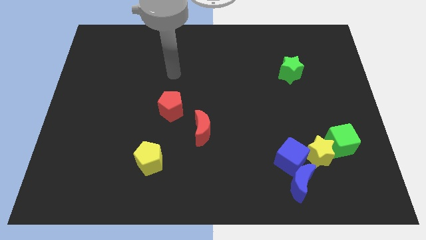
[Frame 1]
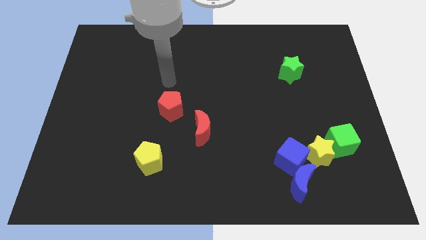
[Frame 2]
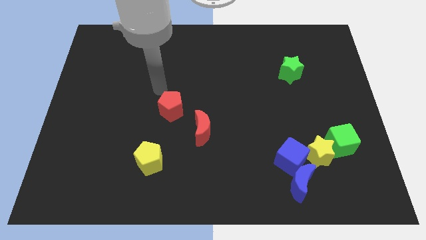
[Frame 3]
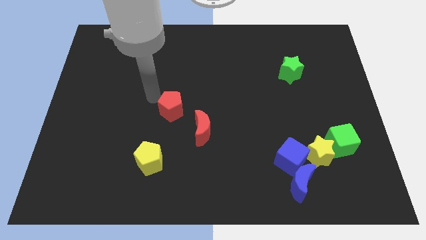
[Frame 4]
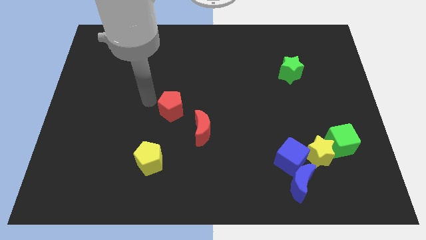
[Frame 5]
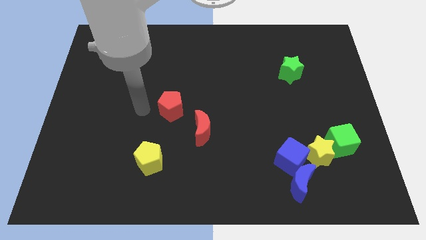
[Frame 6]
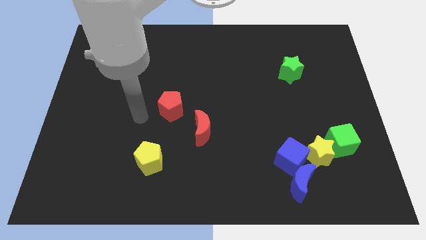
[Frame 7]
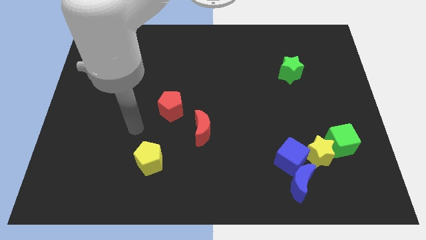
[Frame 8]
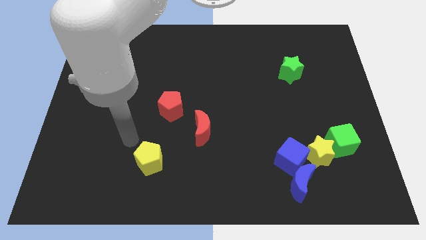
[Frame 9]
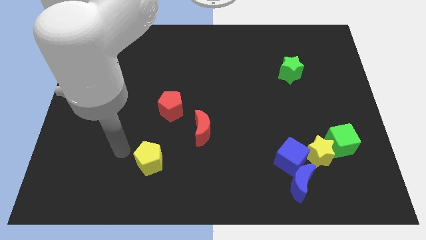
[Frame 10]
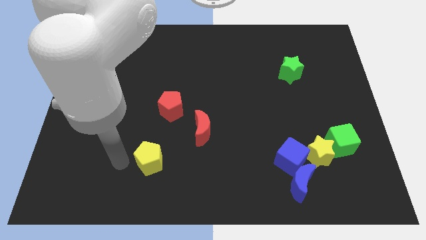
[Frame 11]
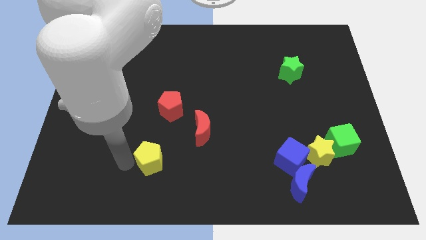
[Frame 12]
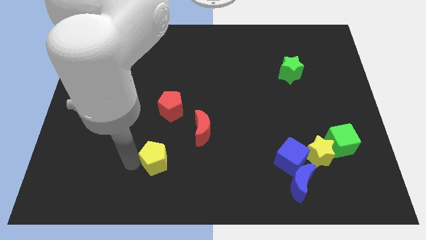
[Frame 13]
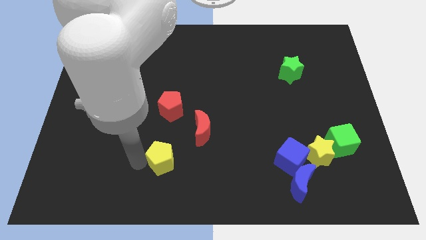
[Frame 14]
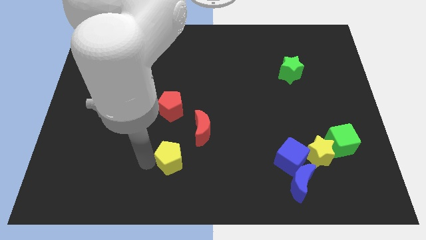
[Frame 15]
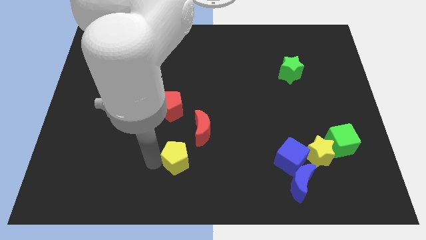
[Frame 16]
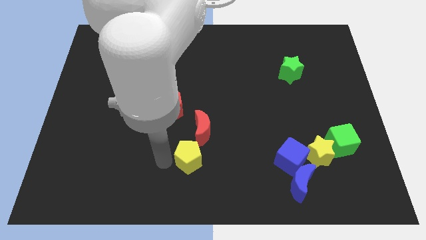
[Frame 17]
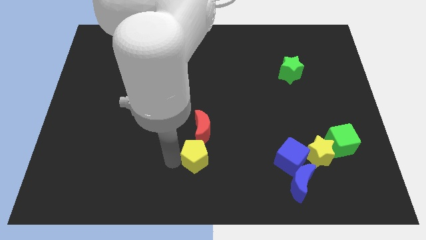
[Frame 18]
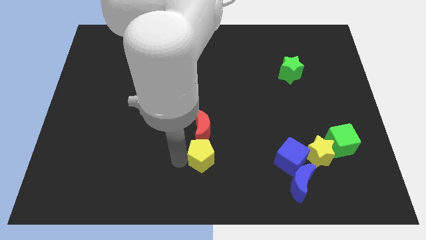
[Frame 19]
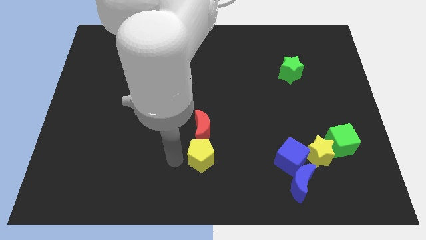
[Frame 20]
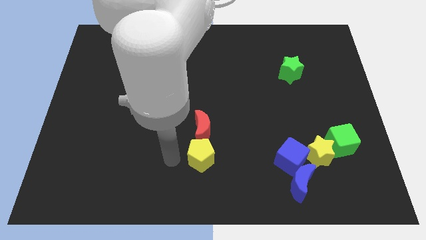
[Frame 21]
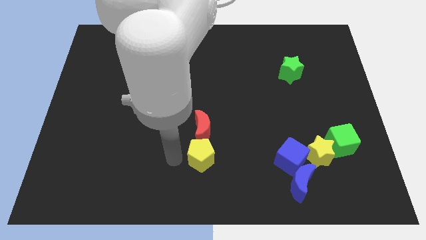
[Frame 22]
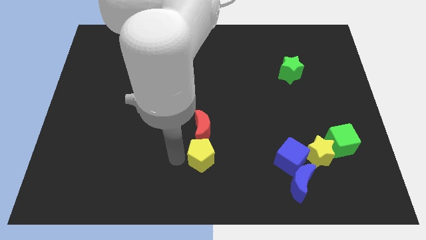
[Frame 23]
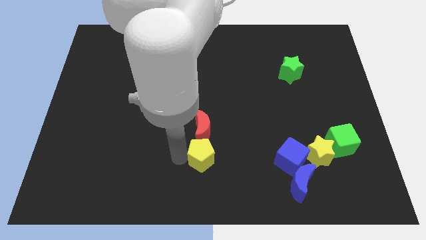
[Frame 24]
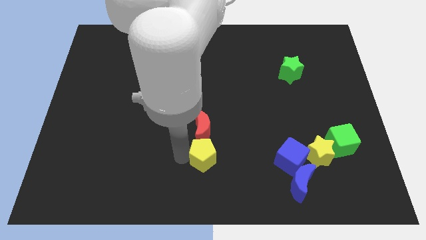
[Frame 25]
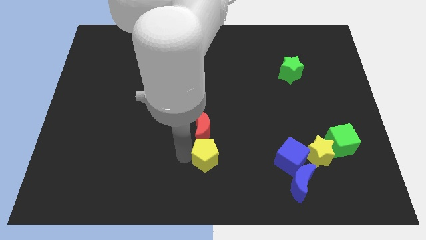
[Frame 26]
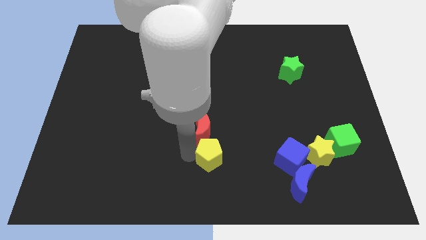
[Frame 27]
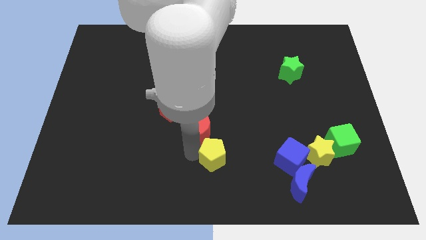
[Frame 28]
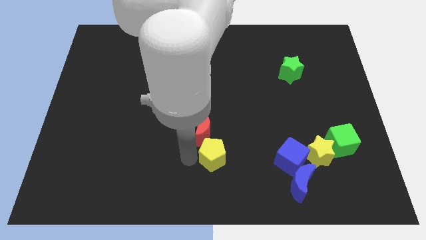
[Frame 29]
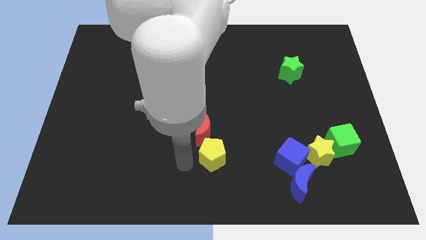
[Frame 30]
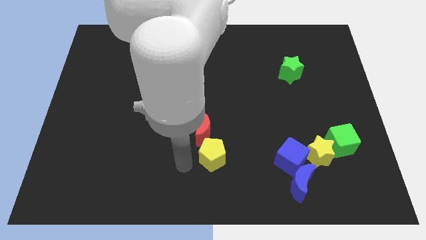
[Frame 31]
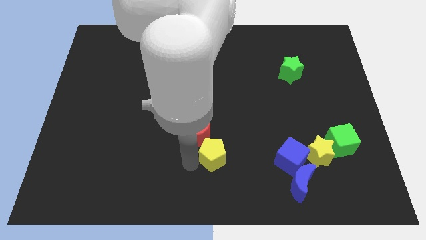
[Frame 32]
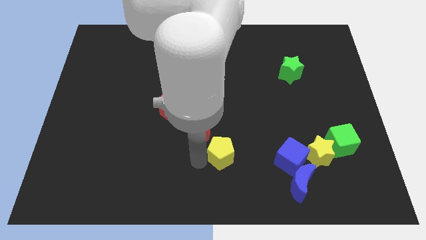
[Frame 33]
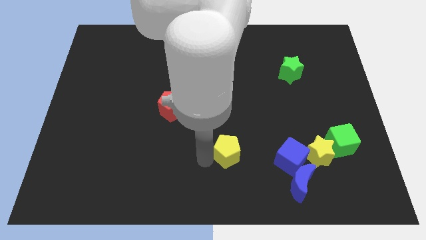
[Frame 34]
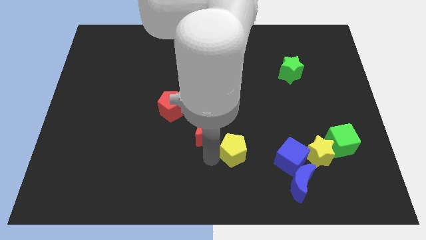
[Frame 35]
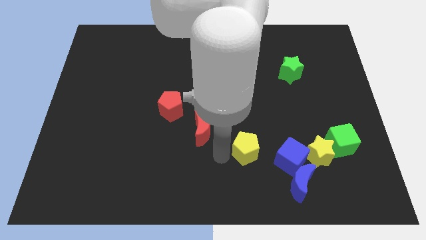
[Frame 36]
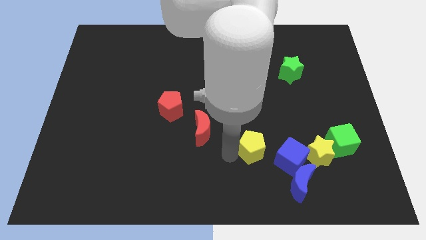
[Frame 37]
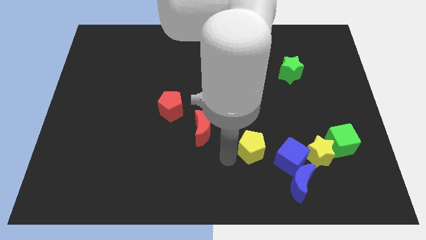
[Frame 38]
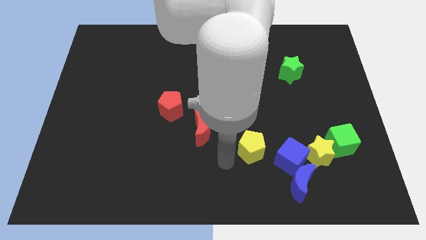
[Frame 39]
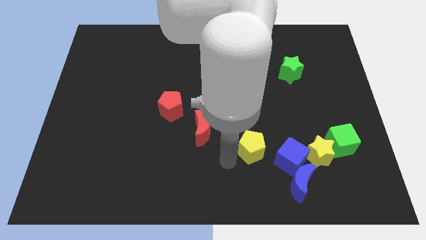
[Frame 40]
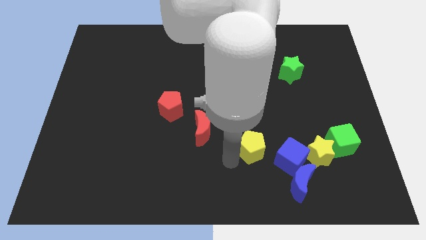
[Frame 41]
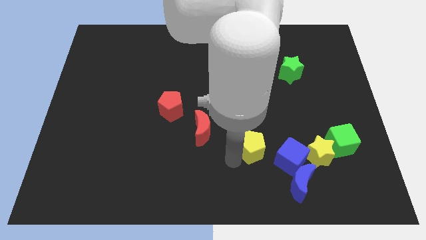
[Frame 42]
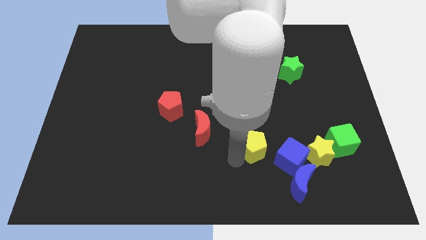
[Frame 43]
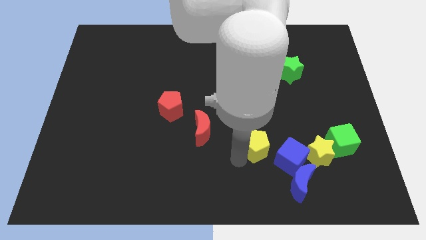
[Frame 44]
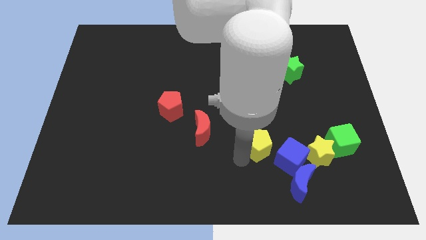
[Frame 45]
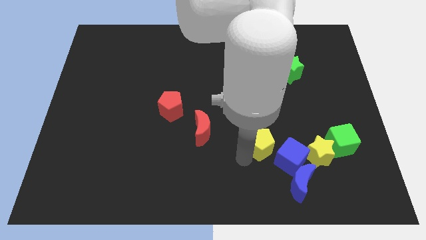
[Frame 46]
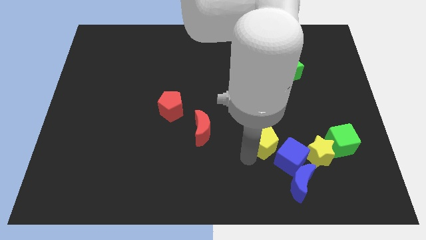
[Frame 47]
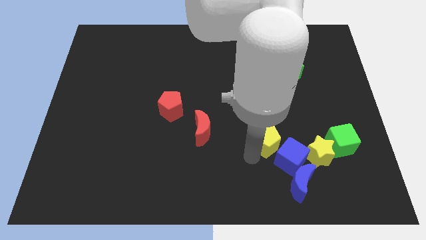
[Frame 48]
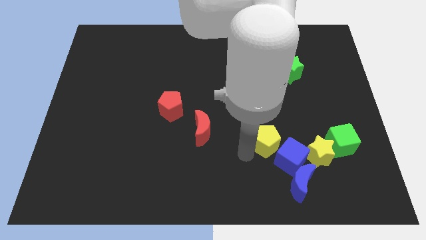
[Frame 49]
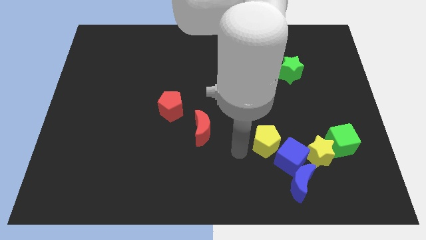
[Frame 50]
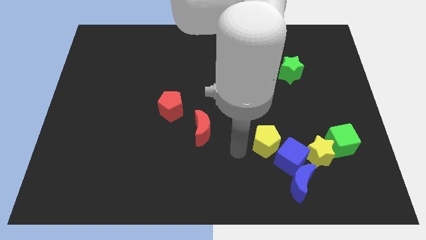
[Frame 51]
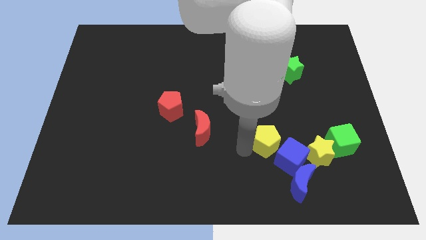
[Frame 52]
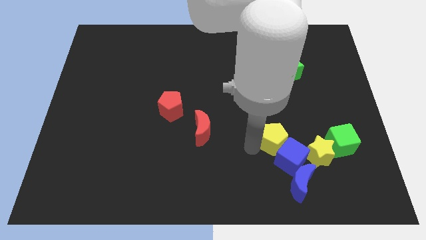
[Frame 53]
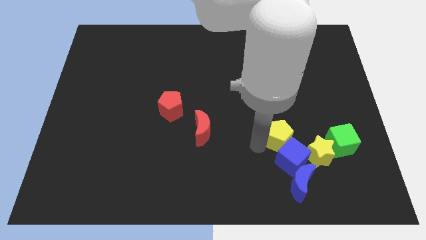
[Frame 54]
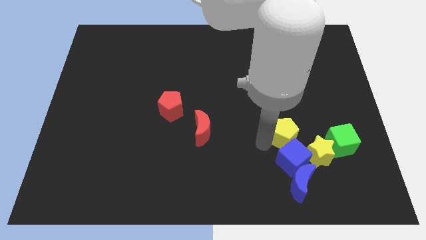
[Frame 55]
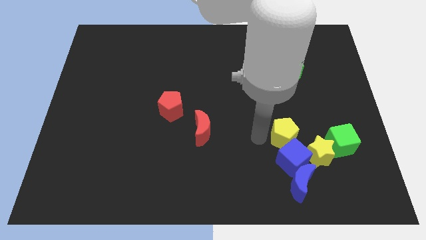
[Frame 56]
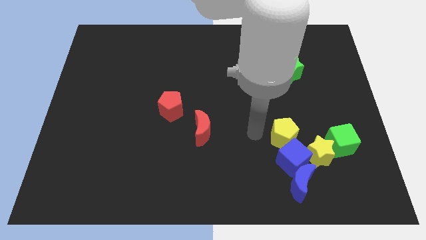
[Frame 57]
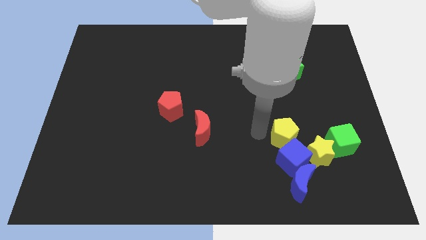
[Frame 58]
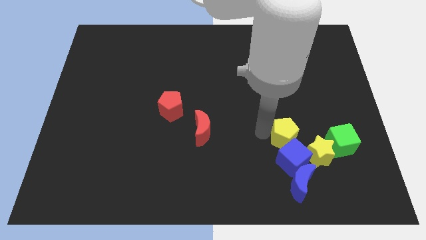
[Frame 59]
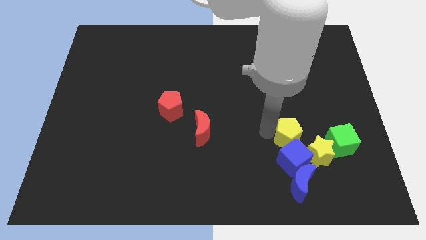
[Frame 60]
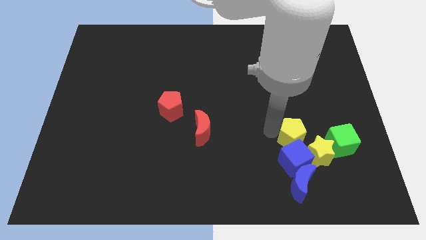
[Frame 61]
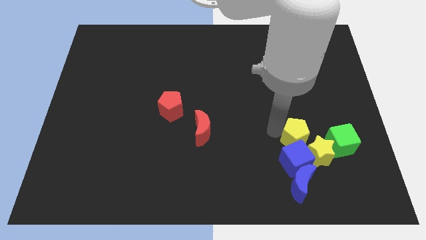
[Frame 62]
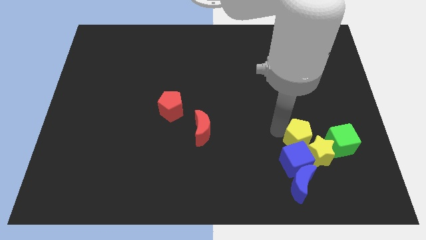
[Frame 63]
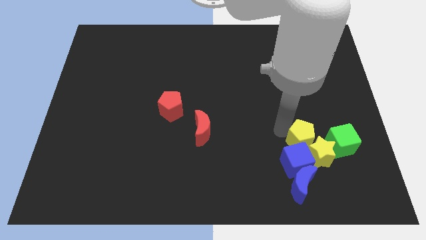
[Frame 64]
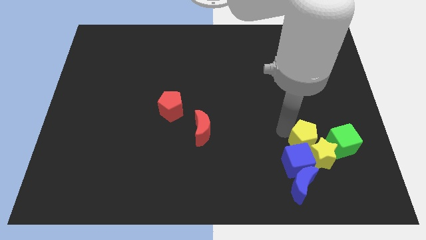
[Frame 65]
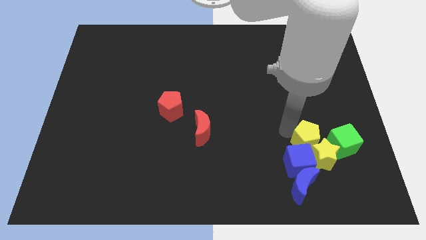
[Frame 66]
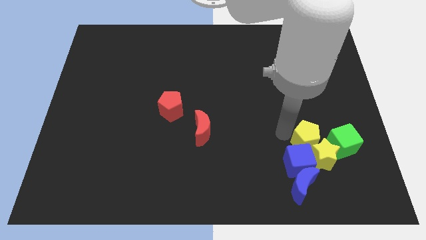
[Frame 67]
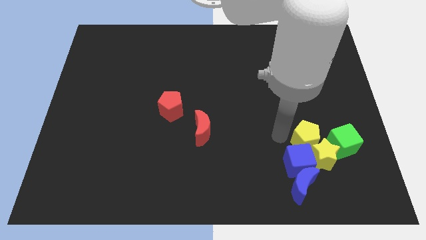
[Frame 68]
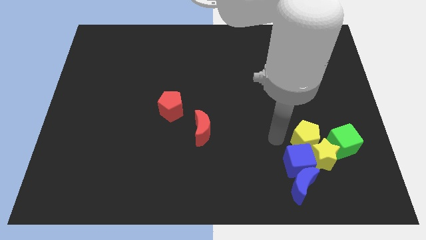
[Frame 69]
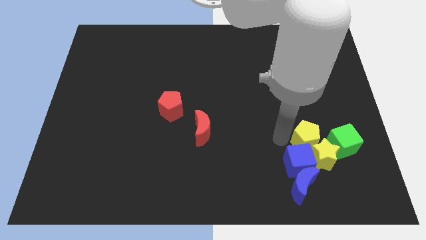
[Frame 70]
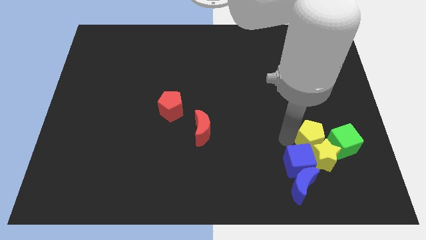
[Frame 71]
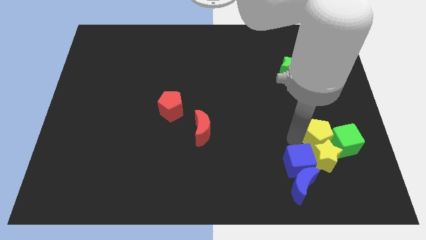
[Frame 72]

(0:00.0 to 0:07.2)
slide the yellow pentagon towards the green cube
